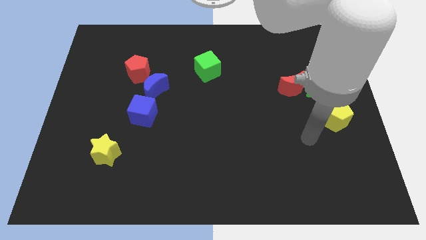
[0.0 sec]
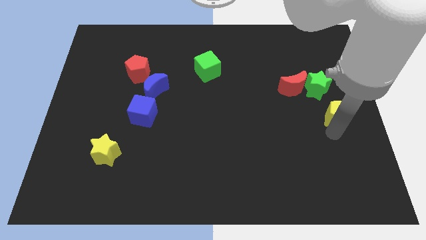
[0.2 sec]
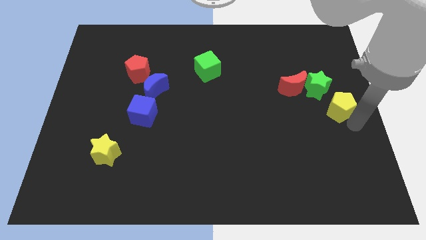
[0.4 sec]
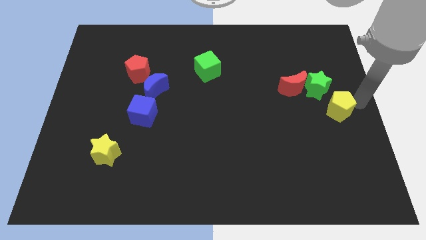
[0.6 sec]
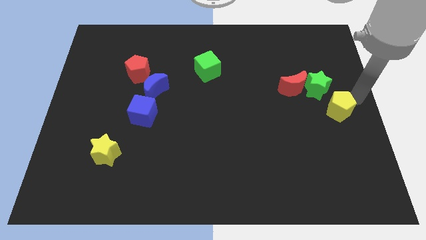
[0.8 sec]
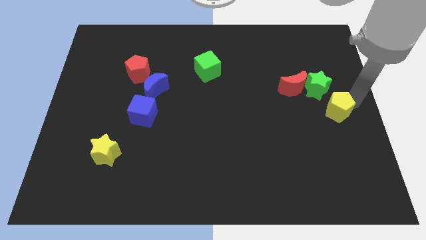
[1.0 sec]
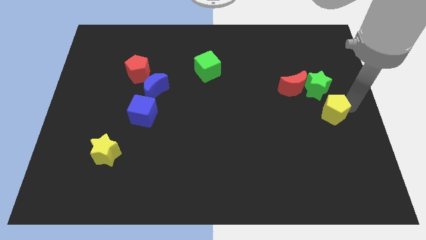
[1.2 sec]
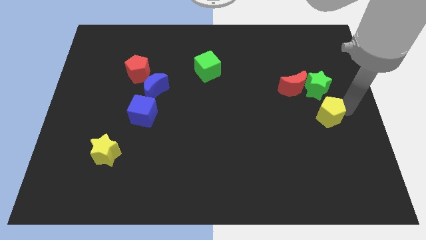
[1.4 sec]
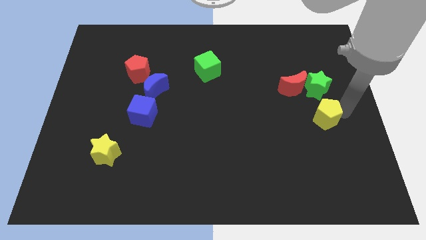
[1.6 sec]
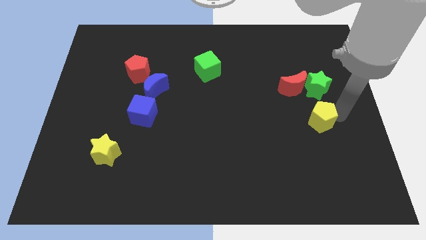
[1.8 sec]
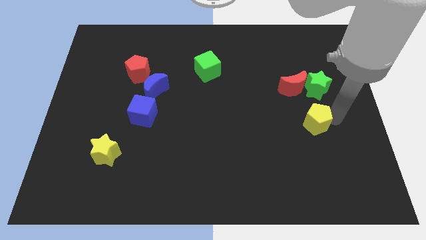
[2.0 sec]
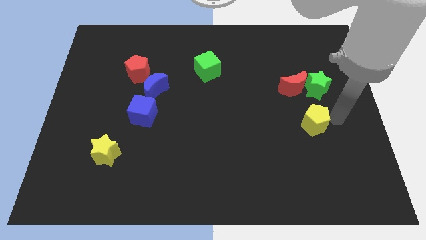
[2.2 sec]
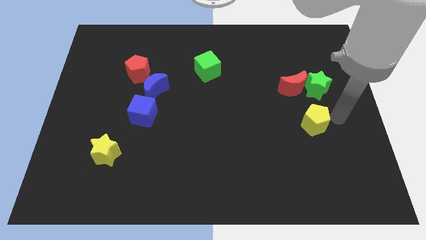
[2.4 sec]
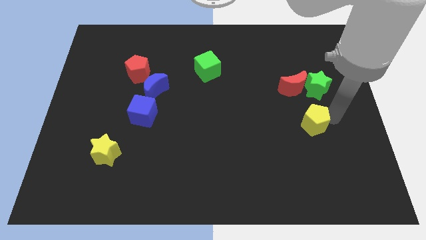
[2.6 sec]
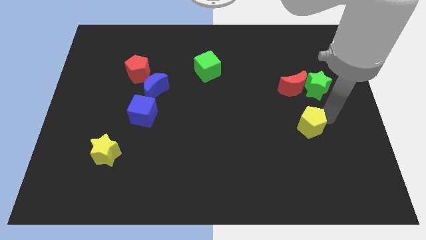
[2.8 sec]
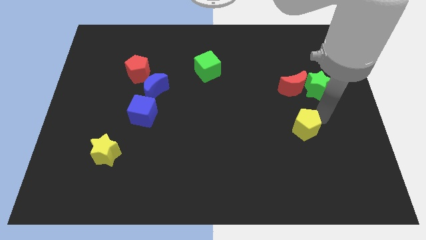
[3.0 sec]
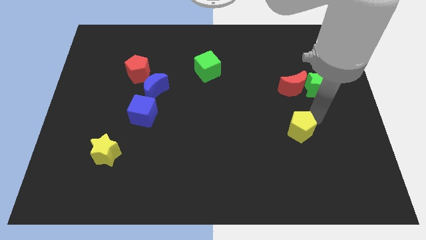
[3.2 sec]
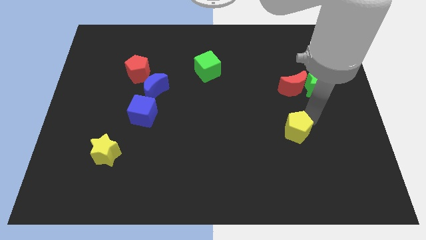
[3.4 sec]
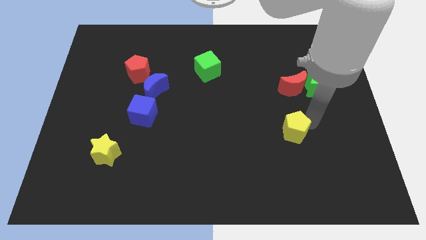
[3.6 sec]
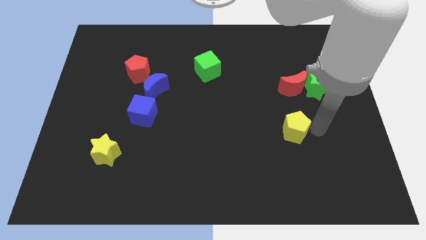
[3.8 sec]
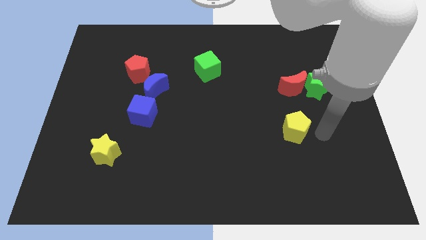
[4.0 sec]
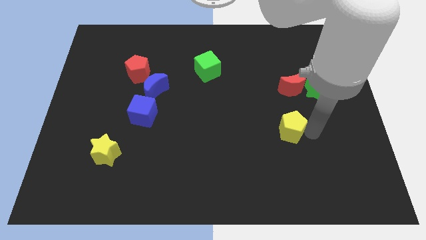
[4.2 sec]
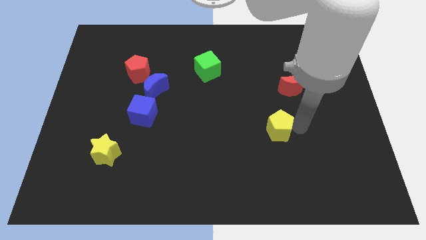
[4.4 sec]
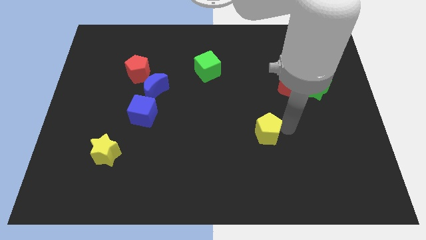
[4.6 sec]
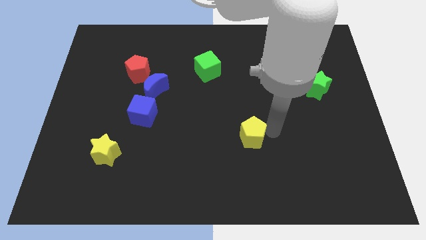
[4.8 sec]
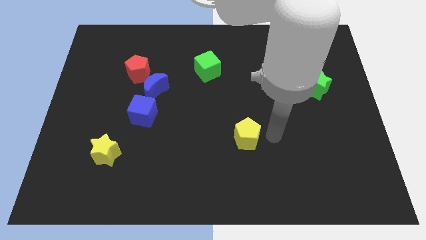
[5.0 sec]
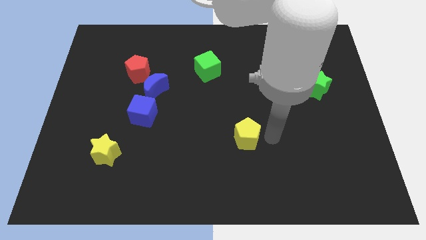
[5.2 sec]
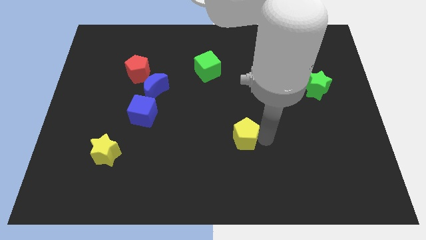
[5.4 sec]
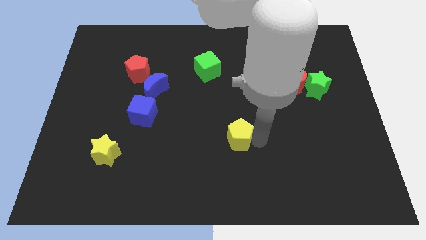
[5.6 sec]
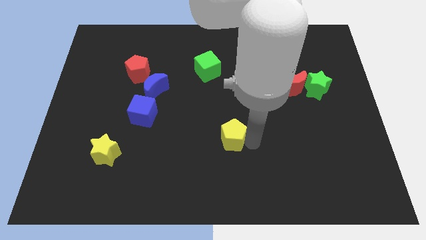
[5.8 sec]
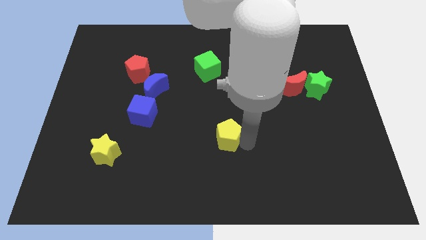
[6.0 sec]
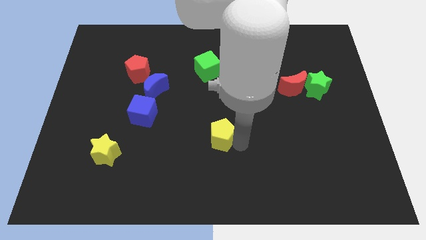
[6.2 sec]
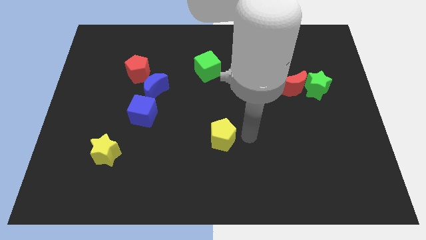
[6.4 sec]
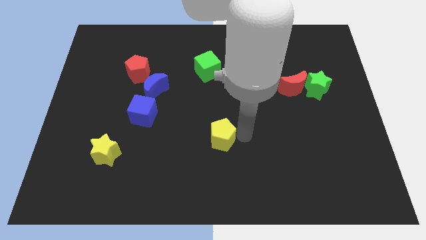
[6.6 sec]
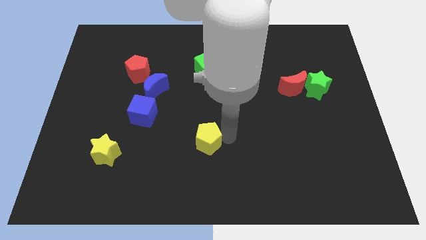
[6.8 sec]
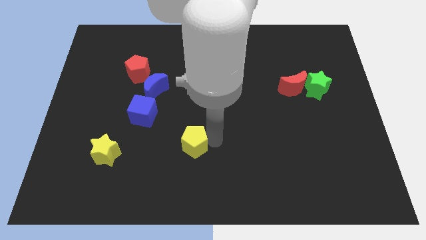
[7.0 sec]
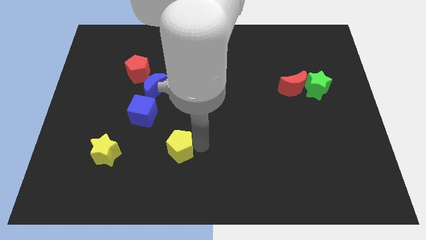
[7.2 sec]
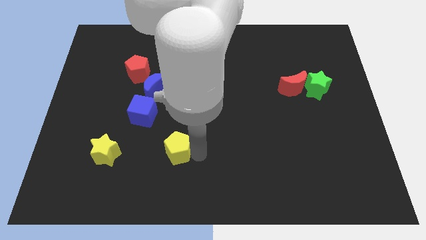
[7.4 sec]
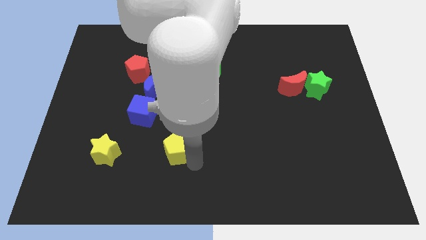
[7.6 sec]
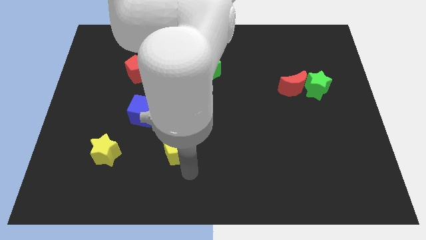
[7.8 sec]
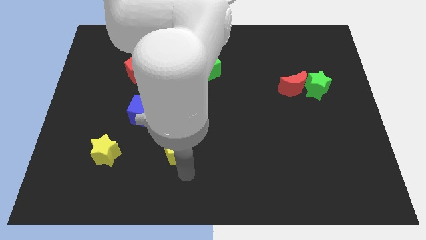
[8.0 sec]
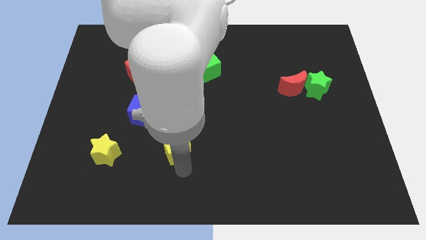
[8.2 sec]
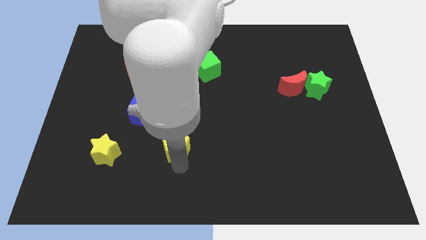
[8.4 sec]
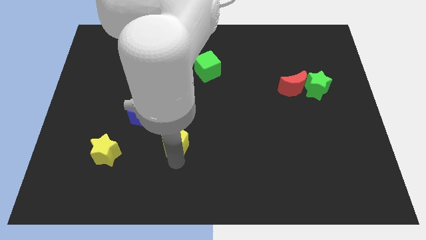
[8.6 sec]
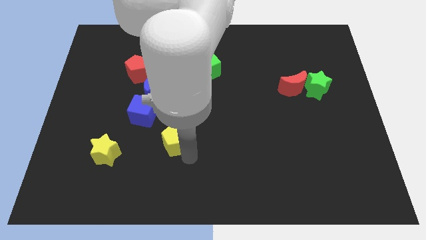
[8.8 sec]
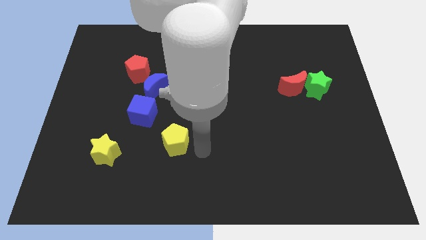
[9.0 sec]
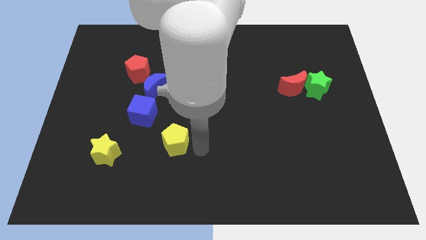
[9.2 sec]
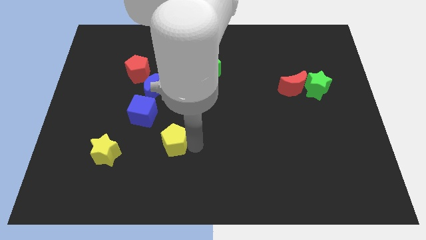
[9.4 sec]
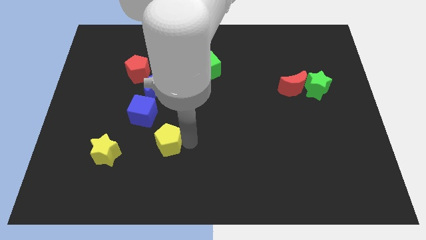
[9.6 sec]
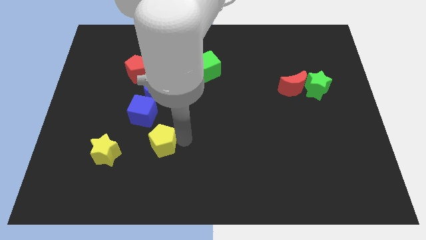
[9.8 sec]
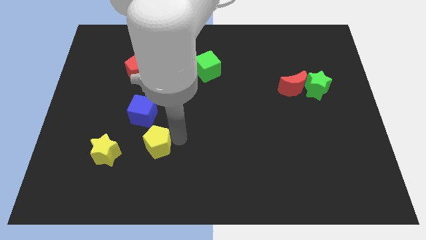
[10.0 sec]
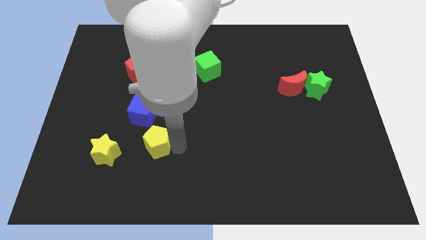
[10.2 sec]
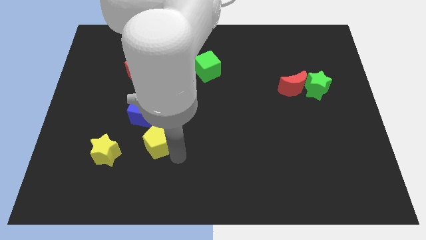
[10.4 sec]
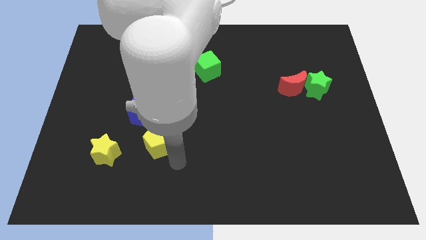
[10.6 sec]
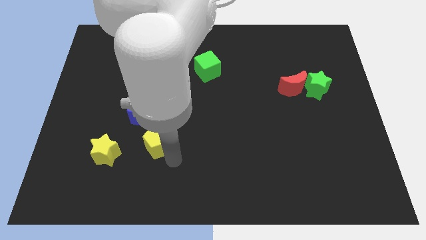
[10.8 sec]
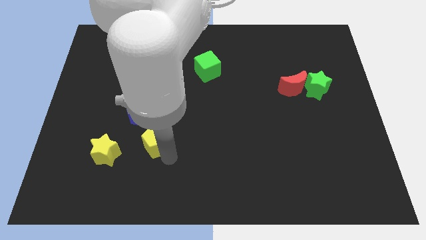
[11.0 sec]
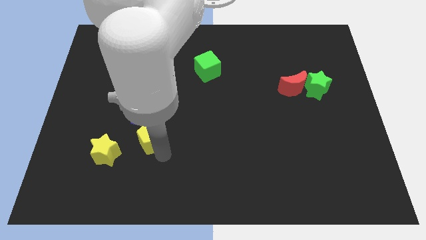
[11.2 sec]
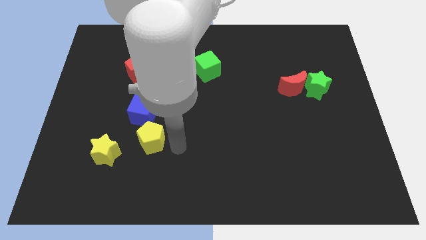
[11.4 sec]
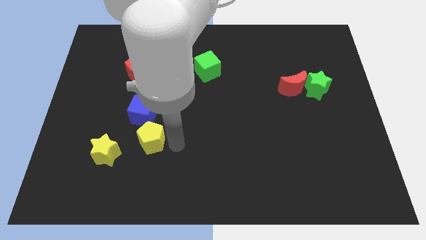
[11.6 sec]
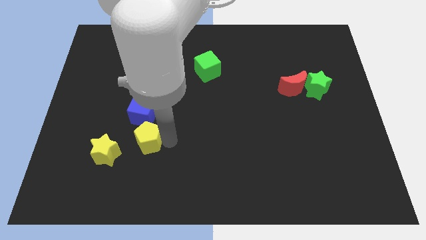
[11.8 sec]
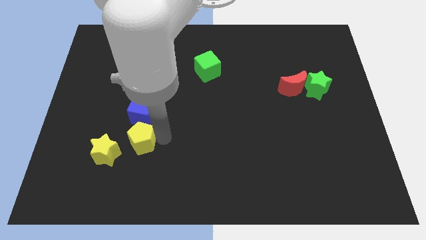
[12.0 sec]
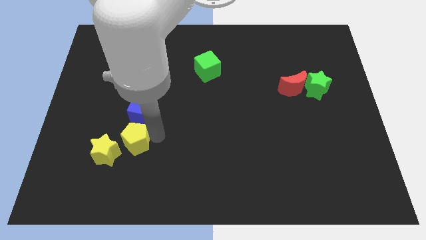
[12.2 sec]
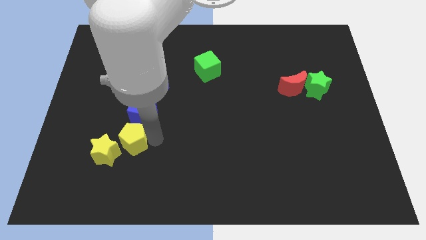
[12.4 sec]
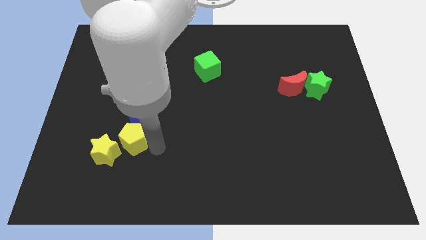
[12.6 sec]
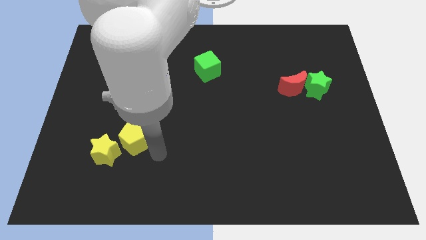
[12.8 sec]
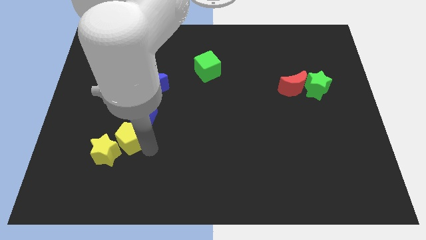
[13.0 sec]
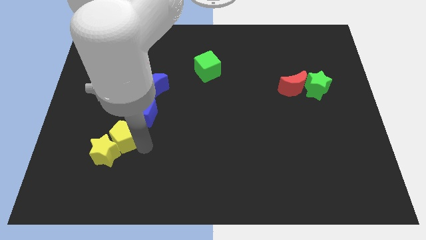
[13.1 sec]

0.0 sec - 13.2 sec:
put the yellow pentagon to the top of the yellow star

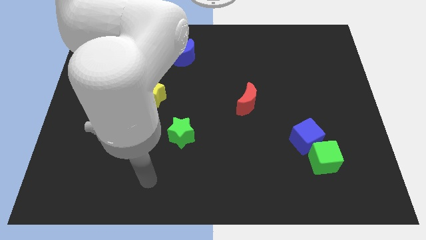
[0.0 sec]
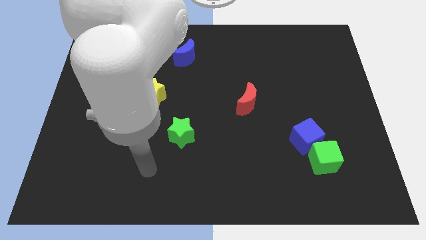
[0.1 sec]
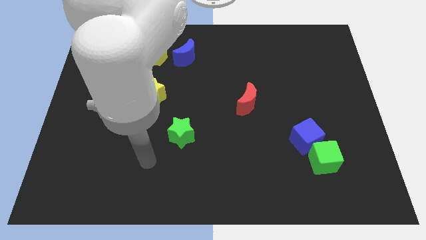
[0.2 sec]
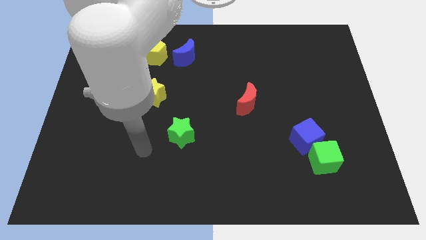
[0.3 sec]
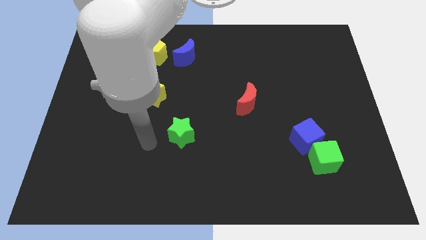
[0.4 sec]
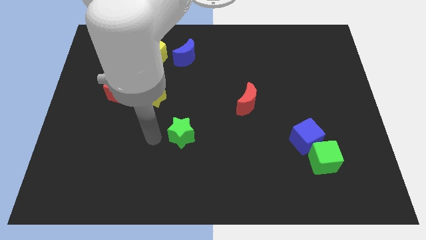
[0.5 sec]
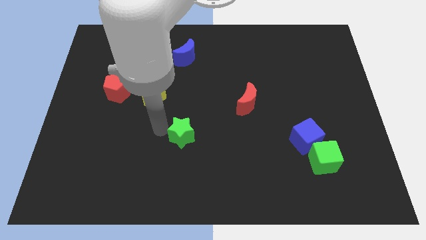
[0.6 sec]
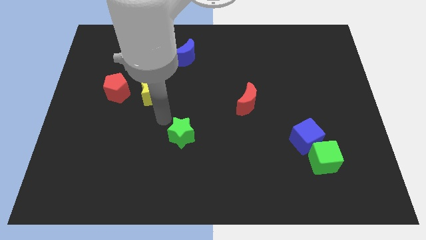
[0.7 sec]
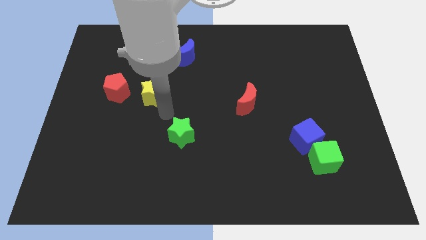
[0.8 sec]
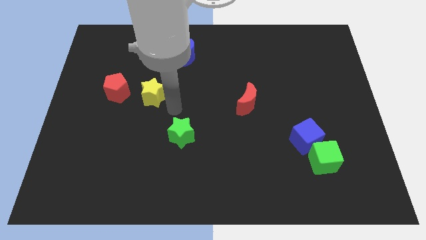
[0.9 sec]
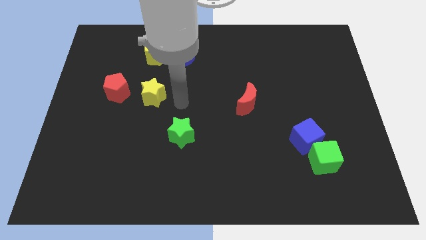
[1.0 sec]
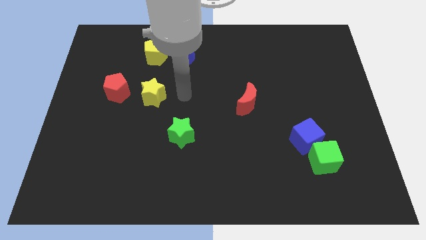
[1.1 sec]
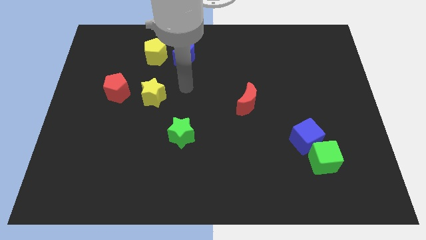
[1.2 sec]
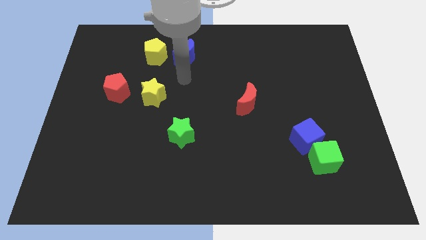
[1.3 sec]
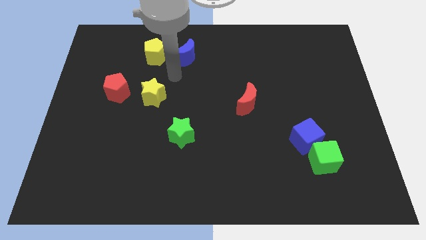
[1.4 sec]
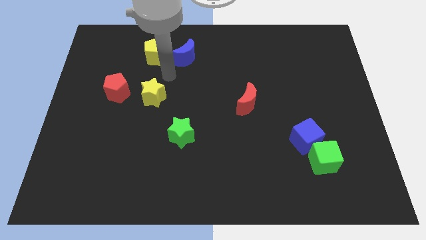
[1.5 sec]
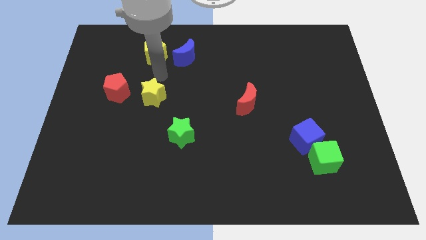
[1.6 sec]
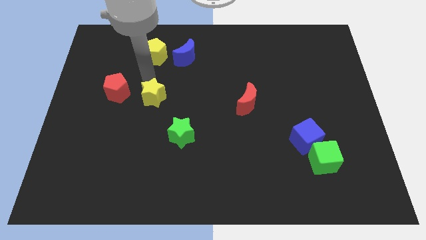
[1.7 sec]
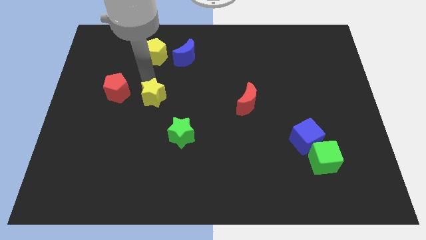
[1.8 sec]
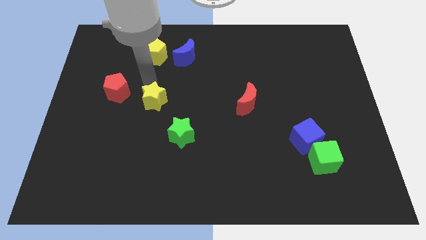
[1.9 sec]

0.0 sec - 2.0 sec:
push the yellow star to the top left side of the green star
